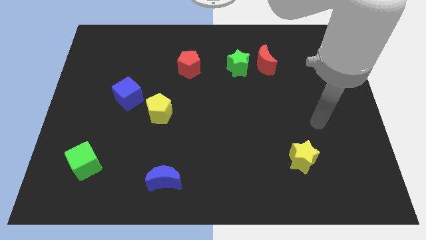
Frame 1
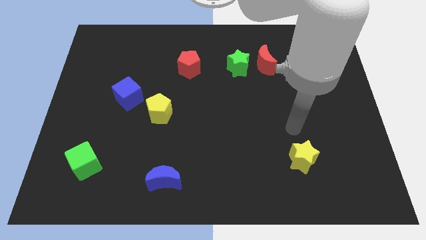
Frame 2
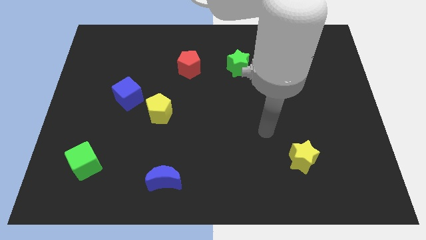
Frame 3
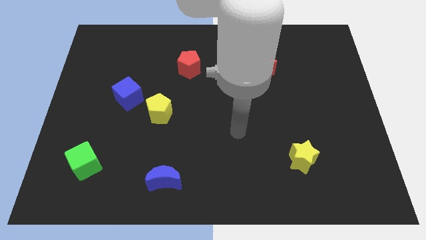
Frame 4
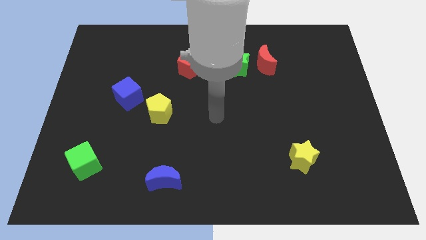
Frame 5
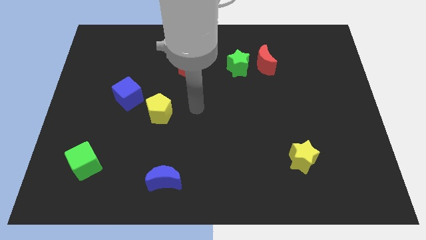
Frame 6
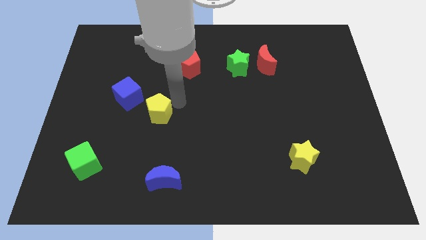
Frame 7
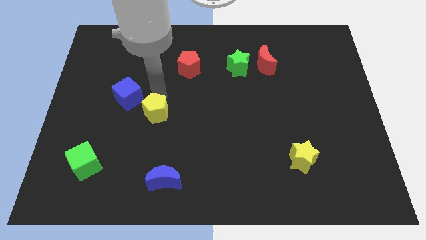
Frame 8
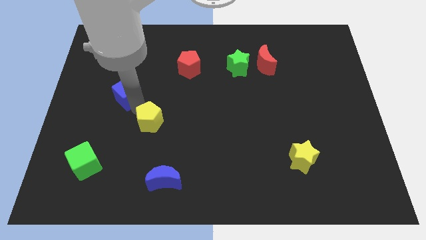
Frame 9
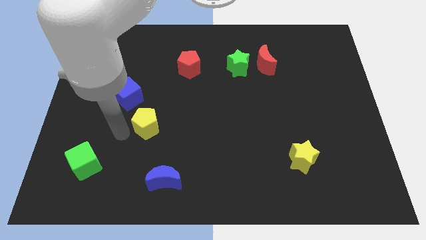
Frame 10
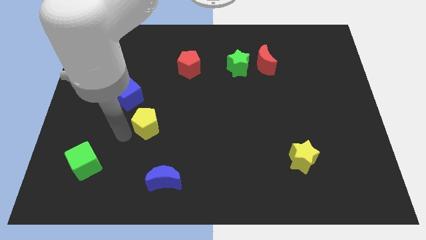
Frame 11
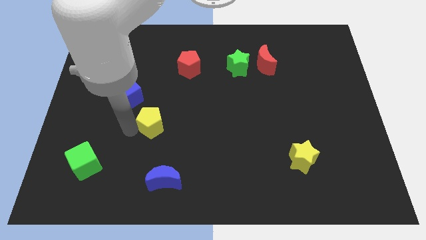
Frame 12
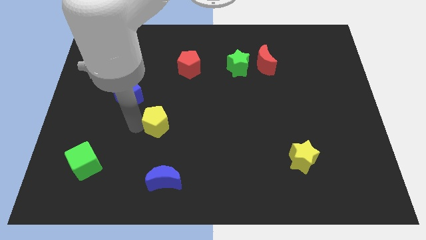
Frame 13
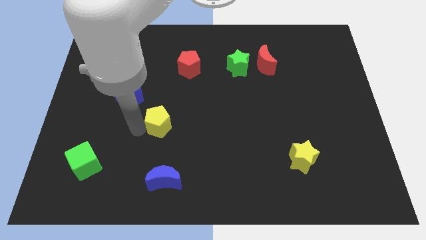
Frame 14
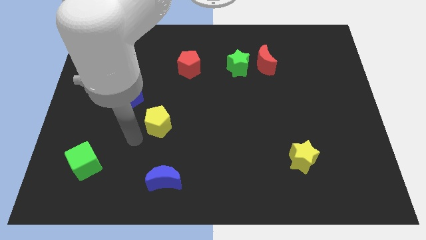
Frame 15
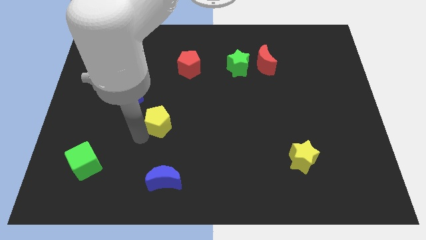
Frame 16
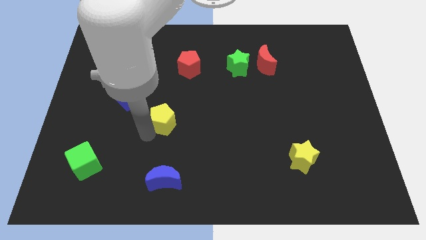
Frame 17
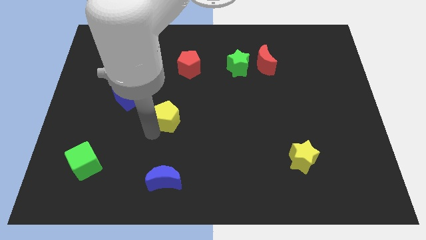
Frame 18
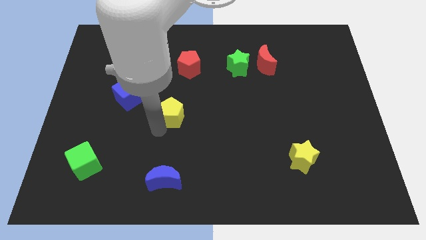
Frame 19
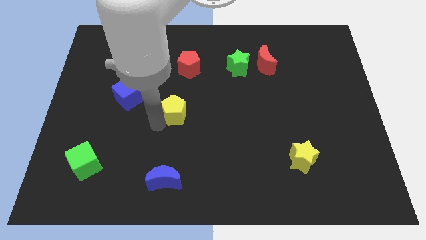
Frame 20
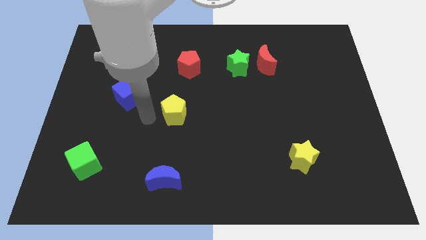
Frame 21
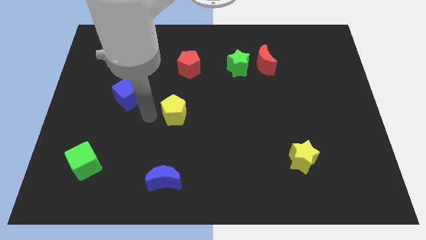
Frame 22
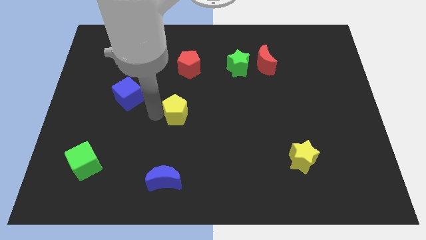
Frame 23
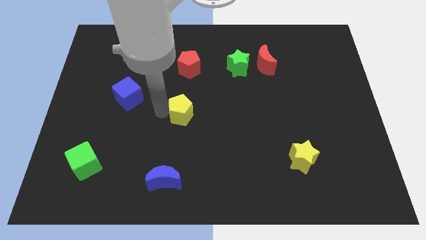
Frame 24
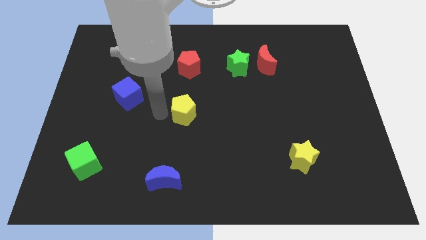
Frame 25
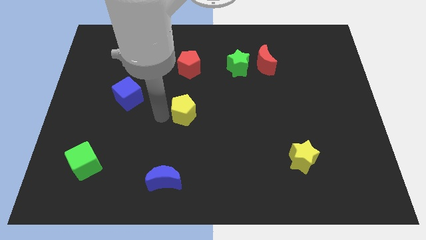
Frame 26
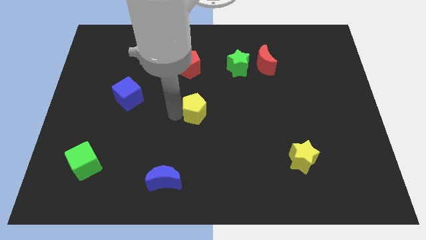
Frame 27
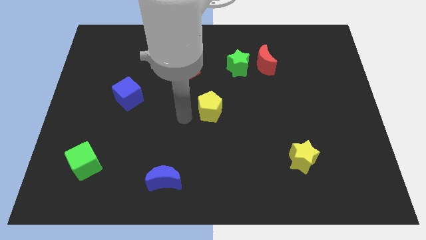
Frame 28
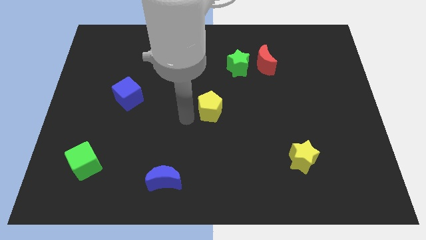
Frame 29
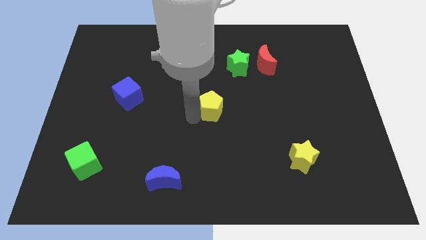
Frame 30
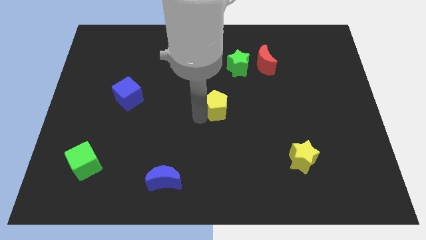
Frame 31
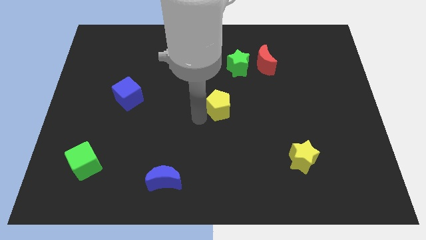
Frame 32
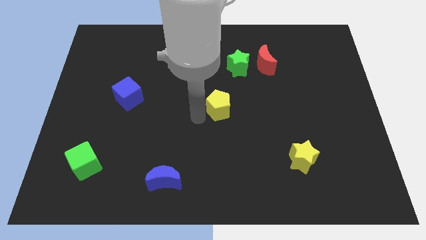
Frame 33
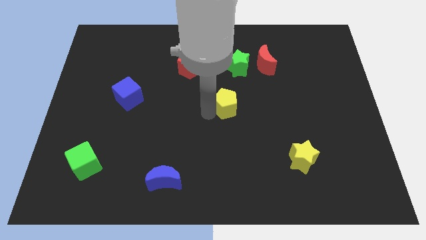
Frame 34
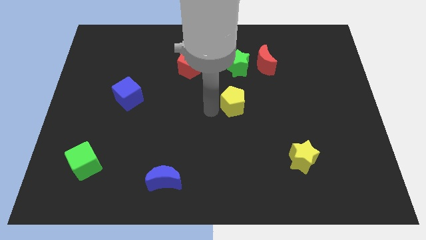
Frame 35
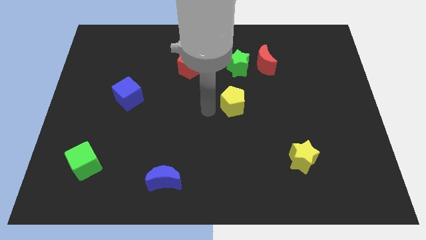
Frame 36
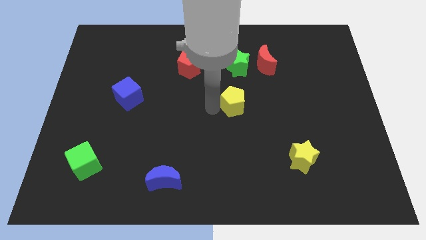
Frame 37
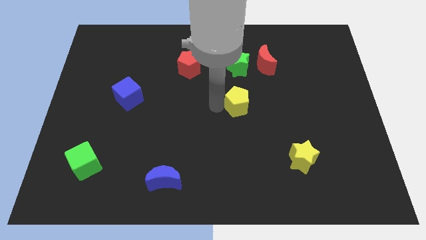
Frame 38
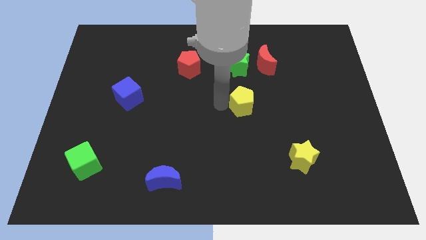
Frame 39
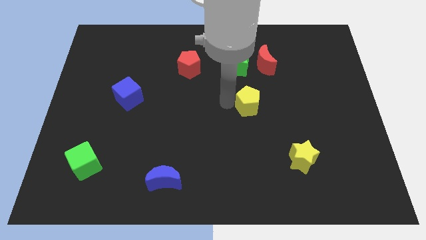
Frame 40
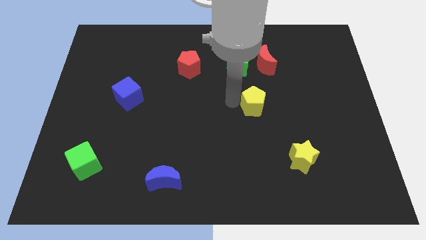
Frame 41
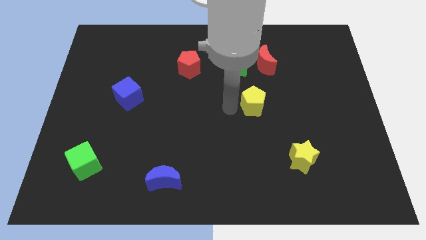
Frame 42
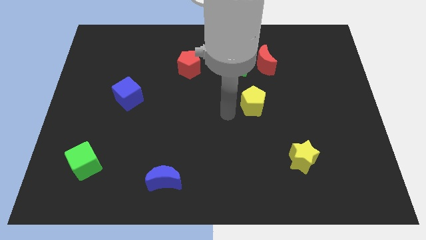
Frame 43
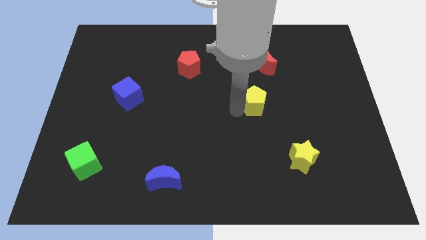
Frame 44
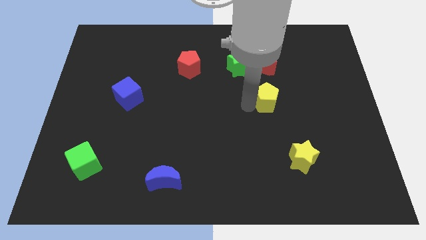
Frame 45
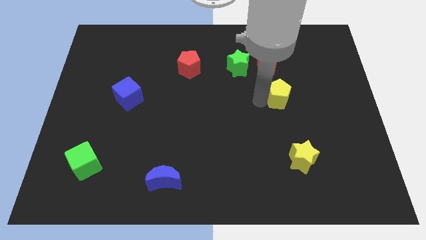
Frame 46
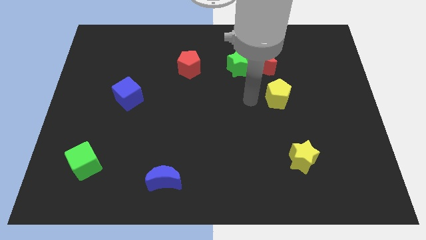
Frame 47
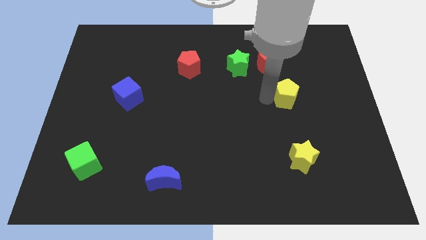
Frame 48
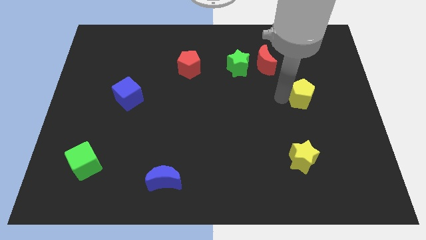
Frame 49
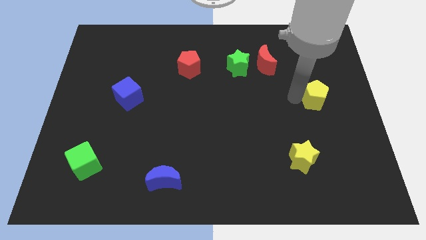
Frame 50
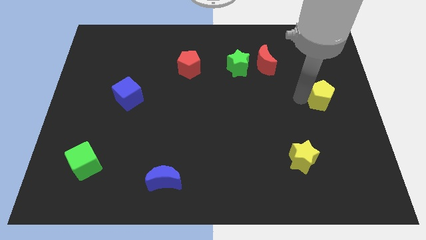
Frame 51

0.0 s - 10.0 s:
slide the yellow pentagon to the right side

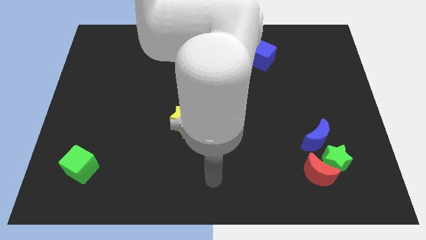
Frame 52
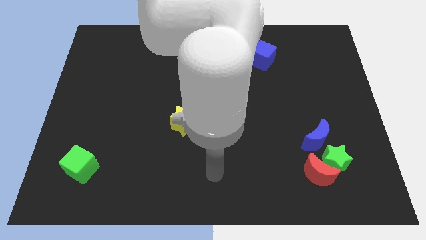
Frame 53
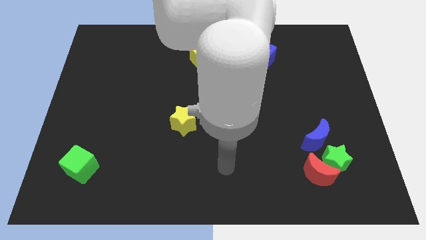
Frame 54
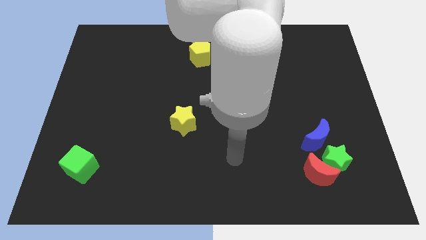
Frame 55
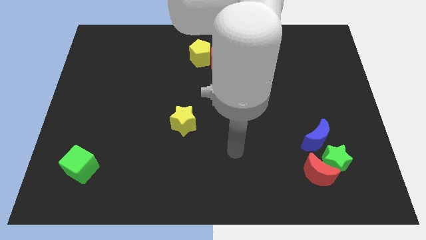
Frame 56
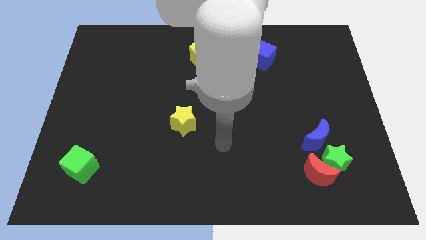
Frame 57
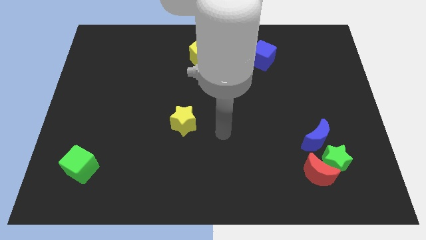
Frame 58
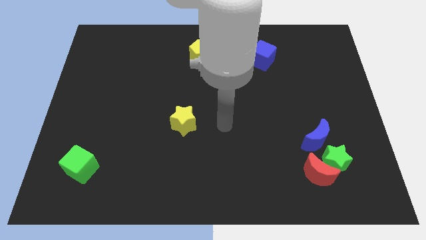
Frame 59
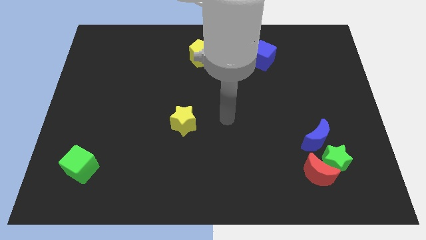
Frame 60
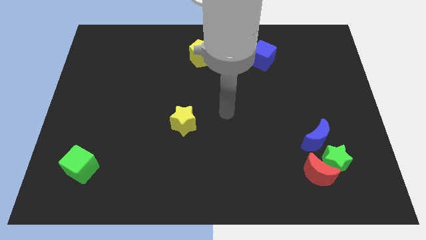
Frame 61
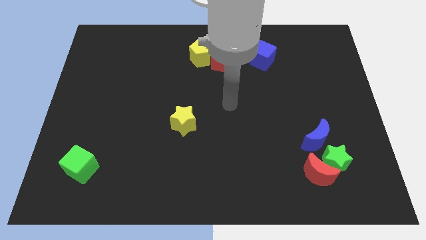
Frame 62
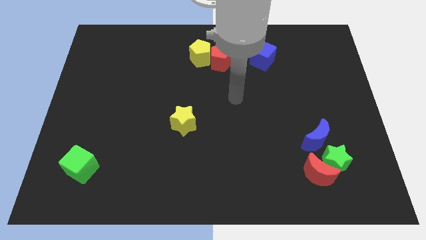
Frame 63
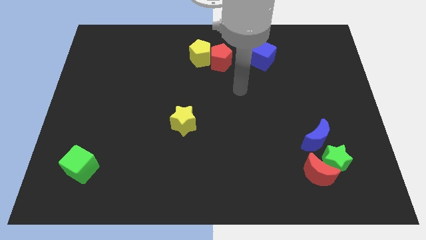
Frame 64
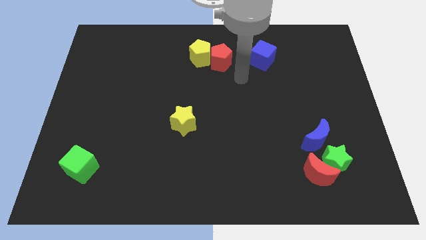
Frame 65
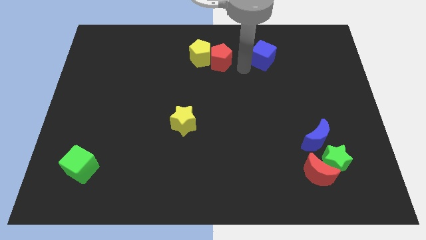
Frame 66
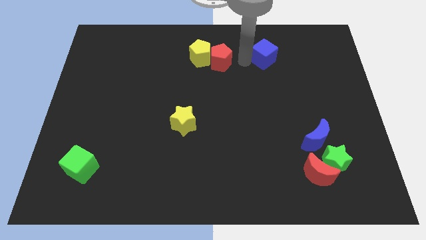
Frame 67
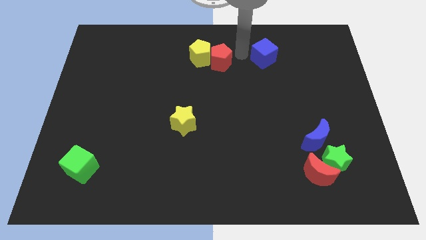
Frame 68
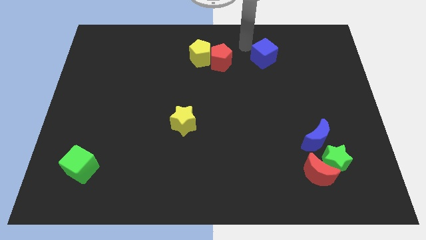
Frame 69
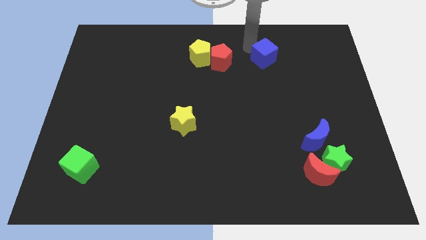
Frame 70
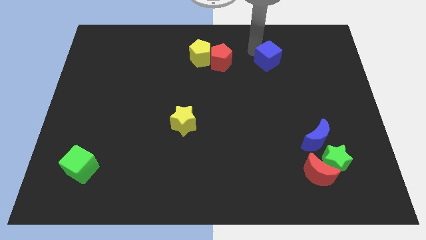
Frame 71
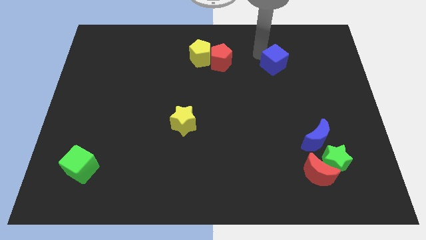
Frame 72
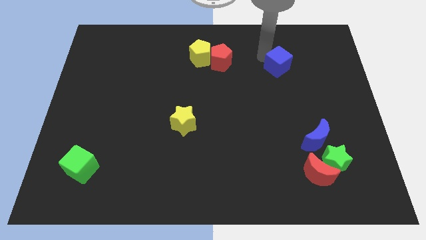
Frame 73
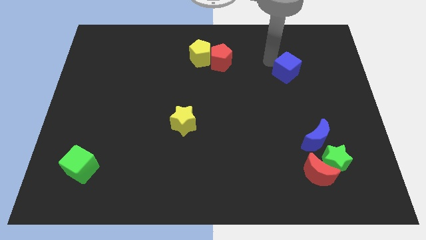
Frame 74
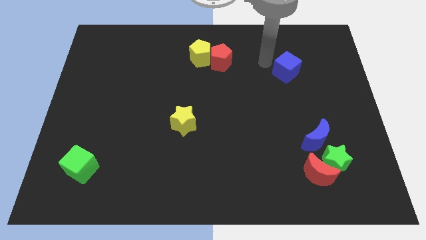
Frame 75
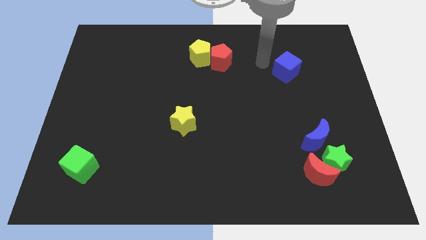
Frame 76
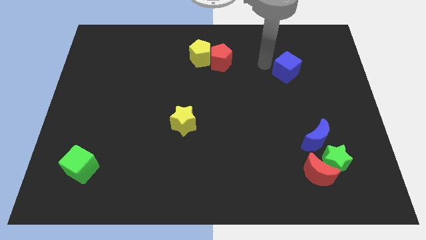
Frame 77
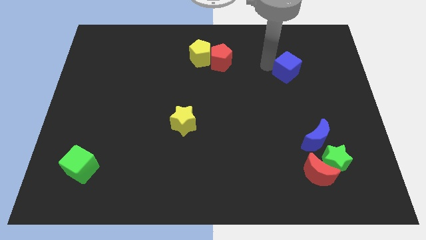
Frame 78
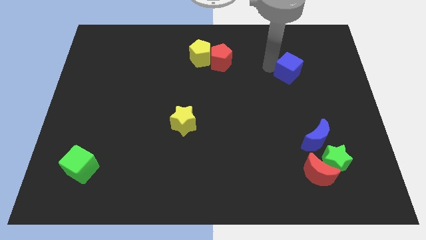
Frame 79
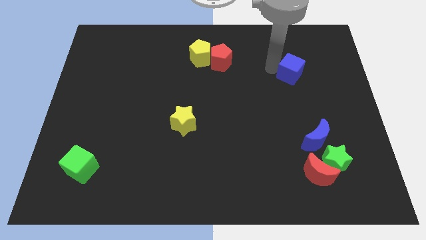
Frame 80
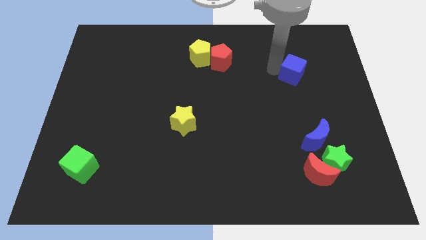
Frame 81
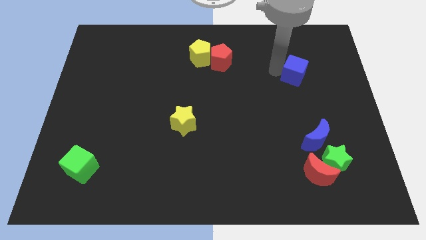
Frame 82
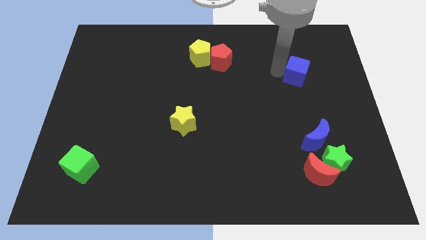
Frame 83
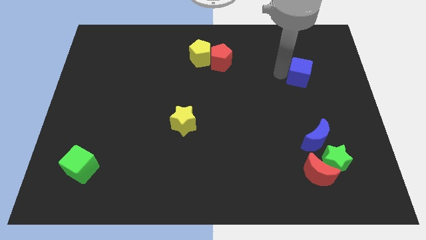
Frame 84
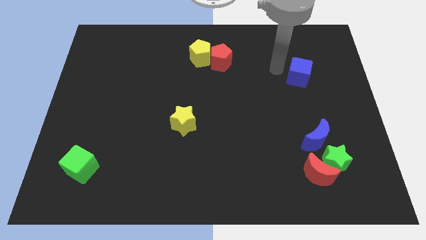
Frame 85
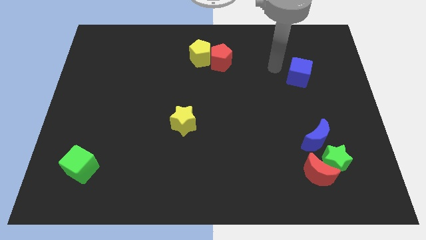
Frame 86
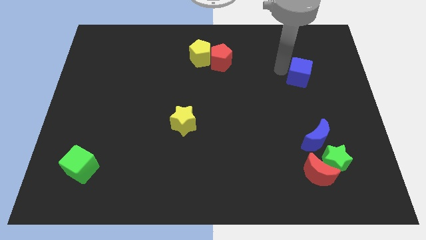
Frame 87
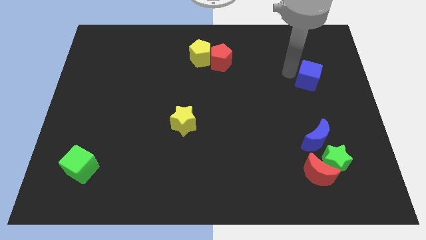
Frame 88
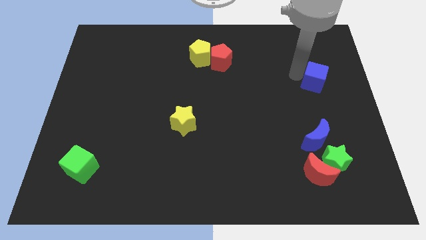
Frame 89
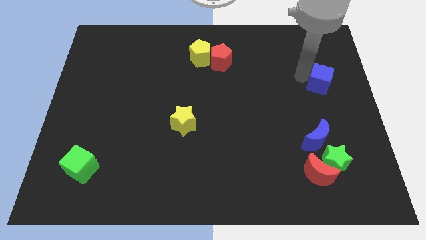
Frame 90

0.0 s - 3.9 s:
push the blue cube to the right side of the board
